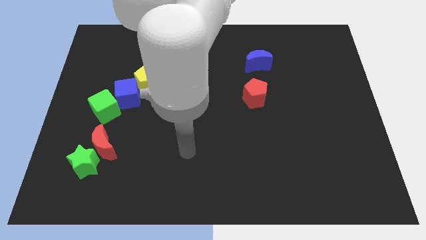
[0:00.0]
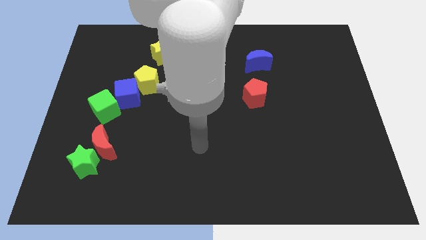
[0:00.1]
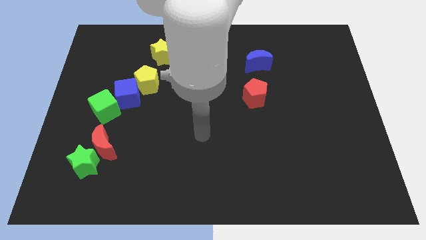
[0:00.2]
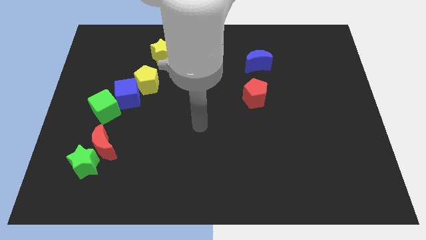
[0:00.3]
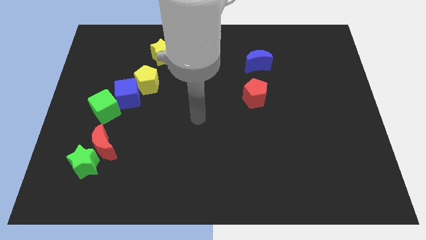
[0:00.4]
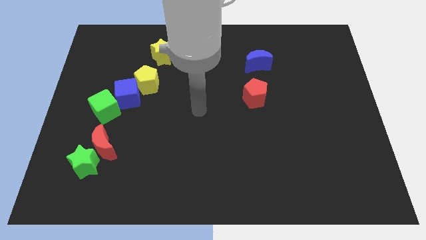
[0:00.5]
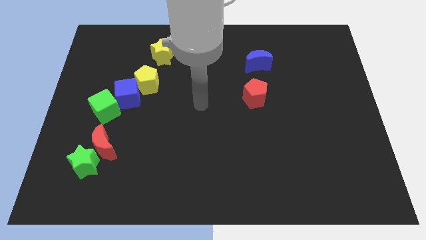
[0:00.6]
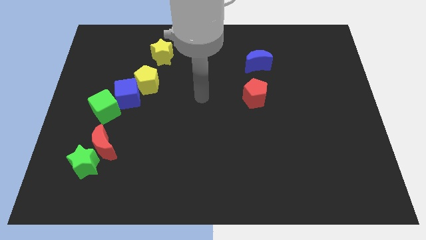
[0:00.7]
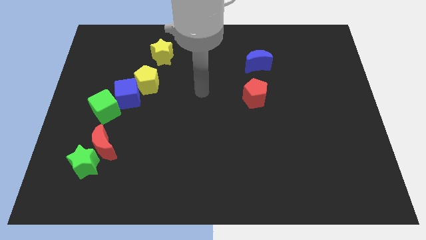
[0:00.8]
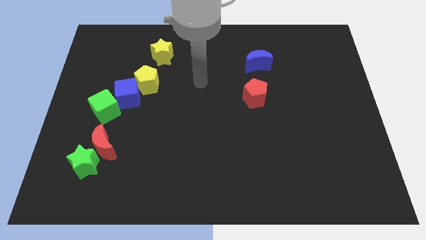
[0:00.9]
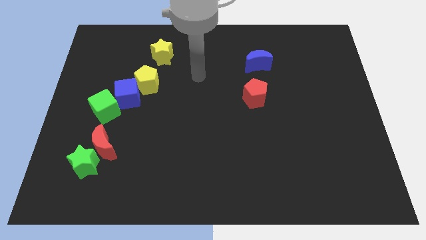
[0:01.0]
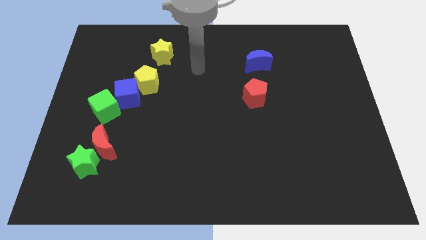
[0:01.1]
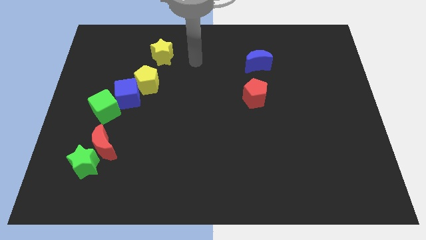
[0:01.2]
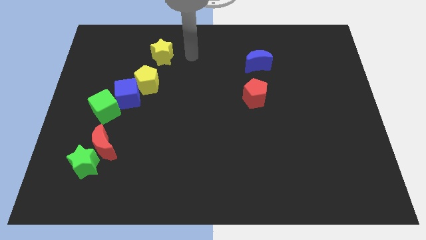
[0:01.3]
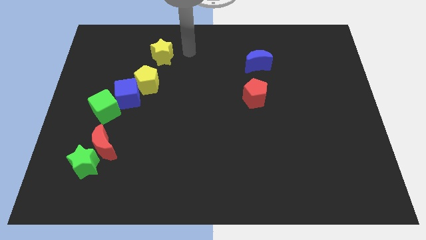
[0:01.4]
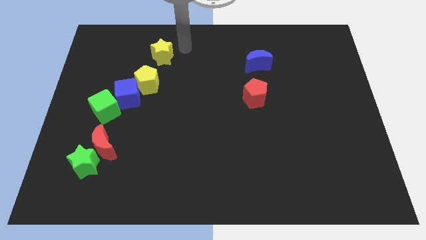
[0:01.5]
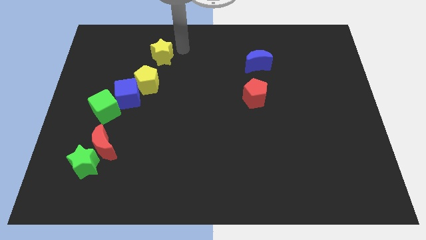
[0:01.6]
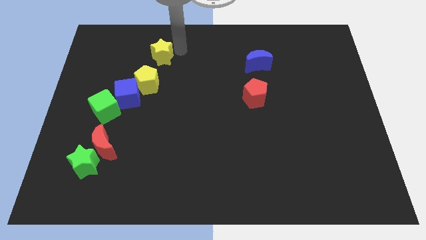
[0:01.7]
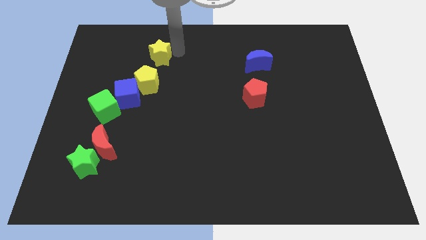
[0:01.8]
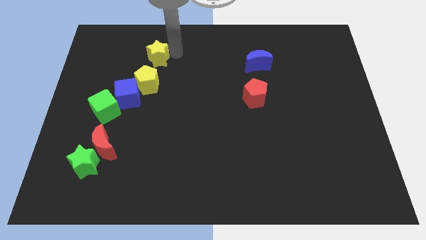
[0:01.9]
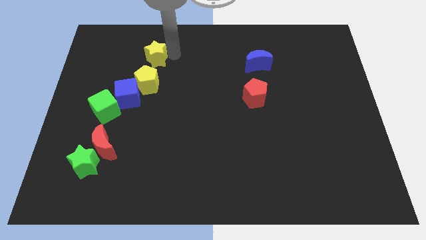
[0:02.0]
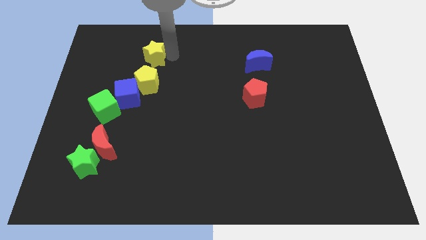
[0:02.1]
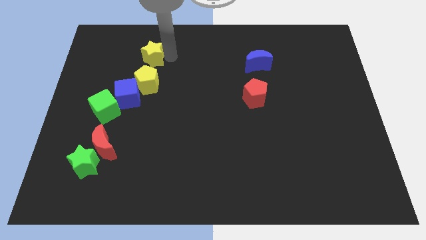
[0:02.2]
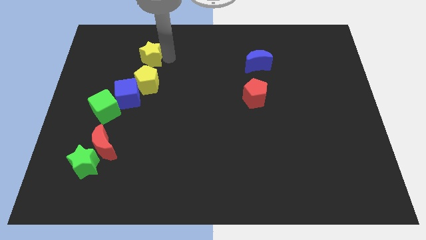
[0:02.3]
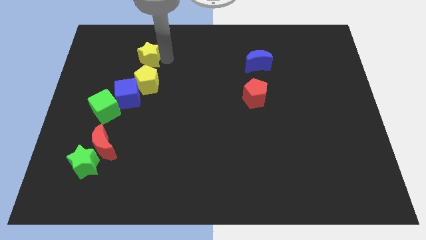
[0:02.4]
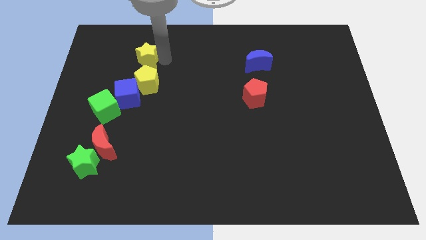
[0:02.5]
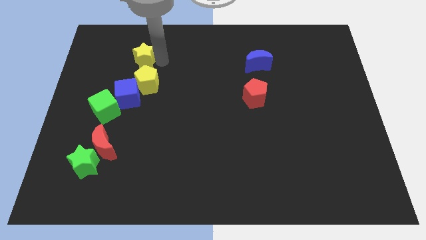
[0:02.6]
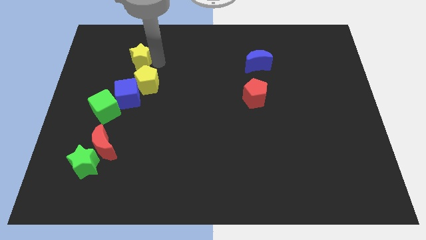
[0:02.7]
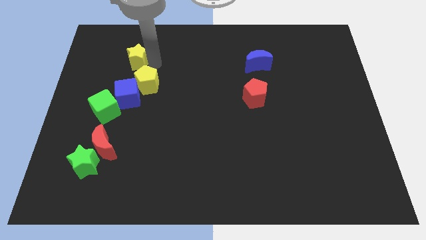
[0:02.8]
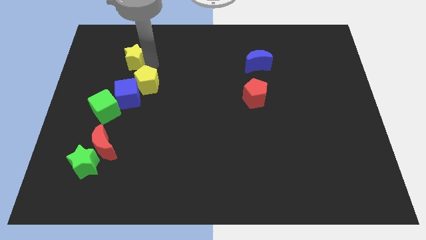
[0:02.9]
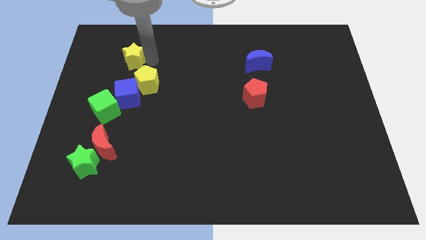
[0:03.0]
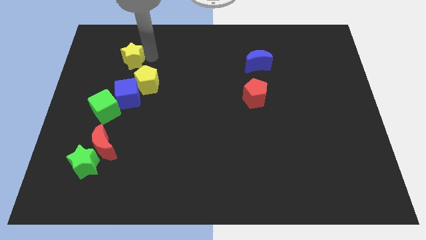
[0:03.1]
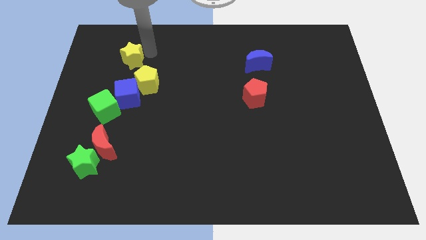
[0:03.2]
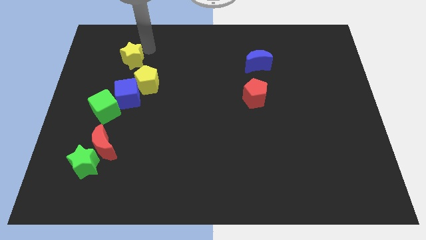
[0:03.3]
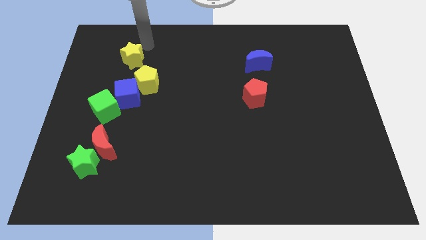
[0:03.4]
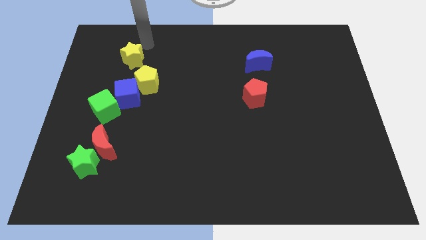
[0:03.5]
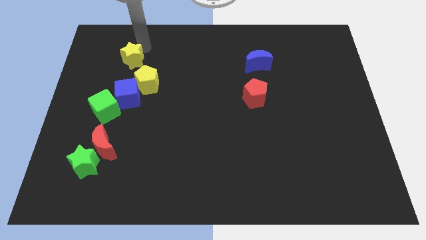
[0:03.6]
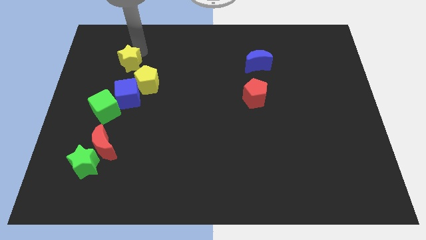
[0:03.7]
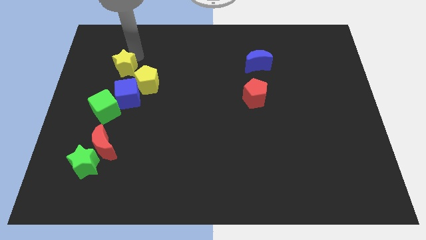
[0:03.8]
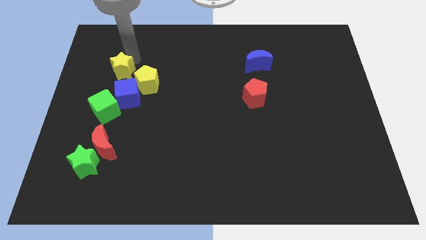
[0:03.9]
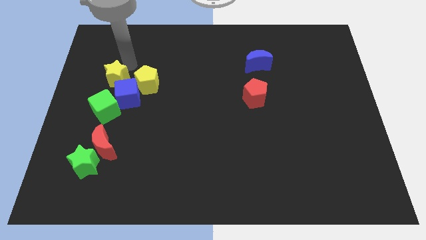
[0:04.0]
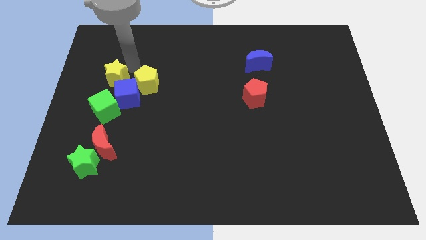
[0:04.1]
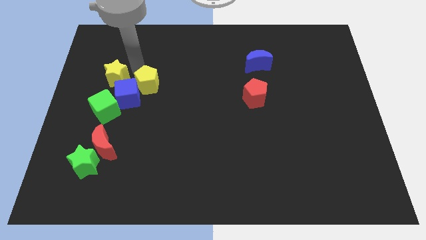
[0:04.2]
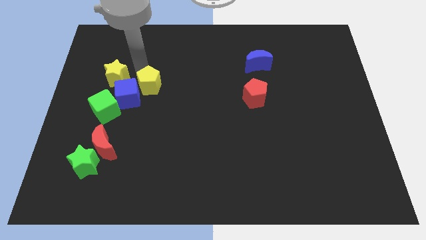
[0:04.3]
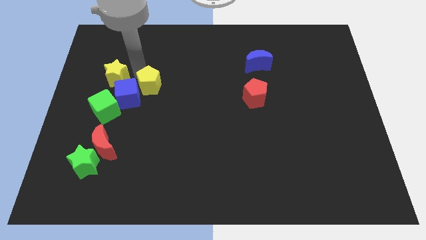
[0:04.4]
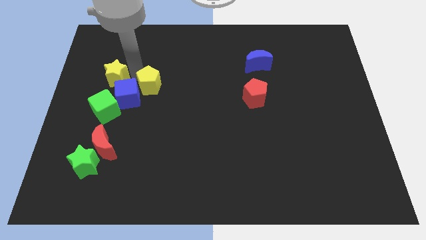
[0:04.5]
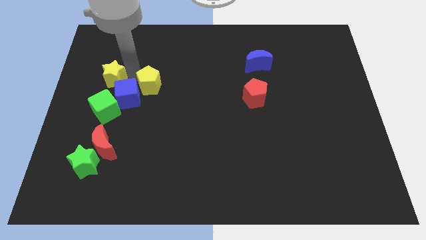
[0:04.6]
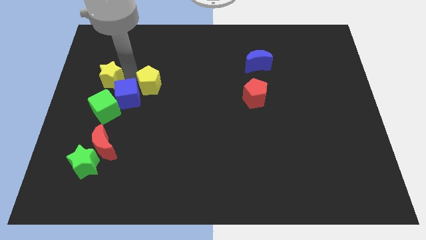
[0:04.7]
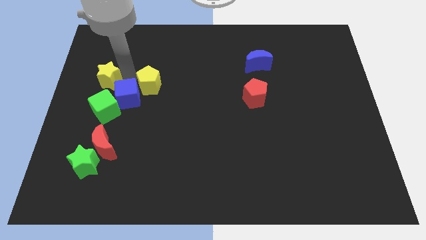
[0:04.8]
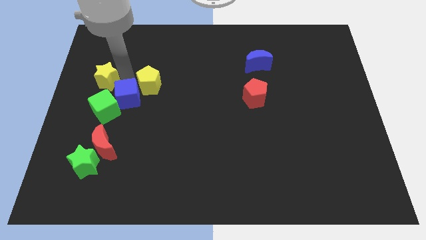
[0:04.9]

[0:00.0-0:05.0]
push the yellow star to the center left

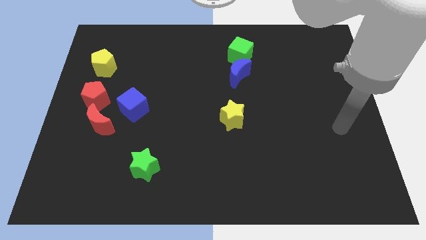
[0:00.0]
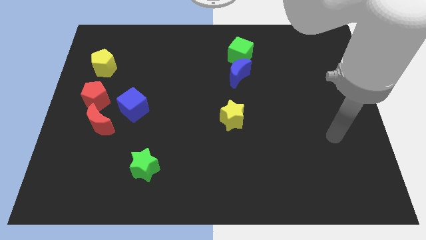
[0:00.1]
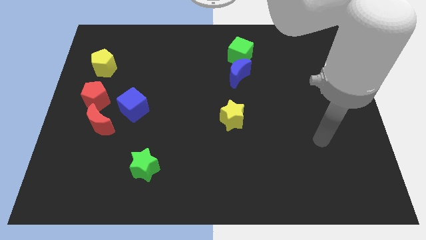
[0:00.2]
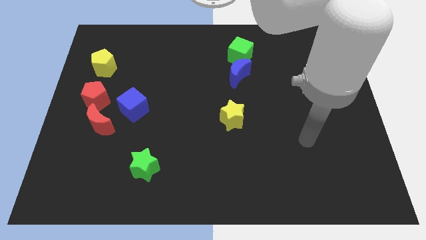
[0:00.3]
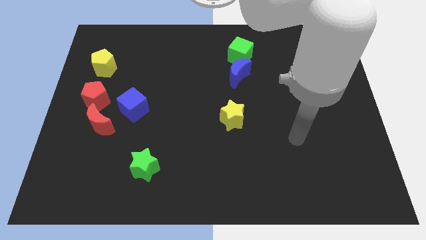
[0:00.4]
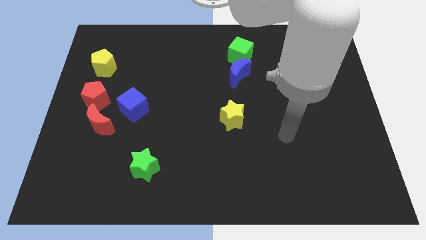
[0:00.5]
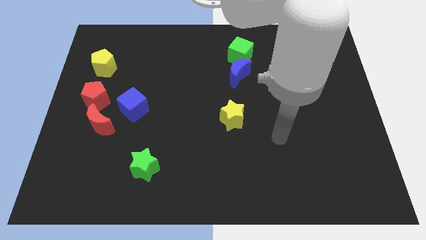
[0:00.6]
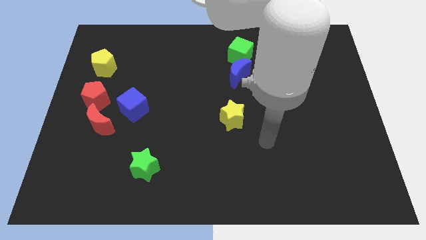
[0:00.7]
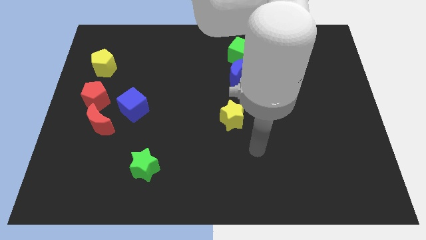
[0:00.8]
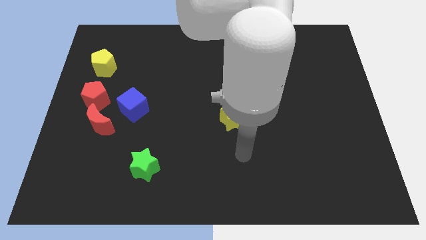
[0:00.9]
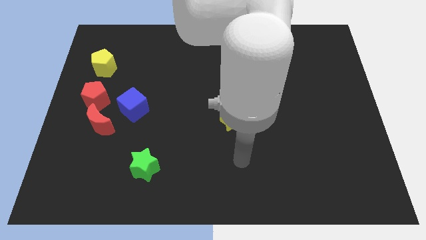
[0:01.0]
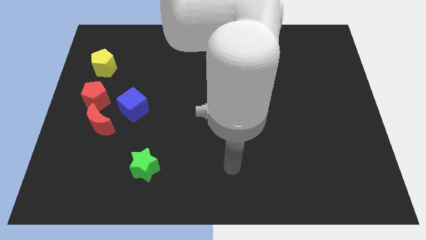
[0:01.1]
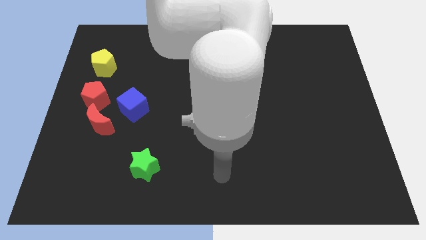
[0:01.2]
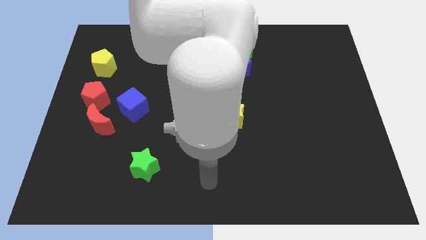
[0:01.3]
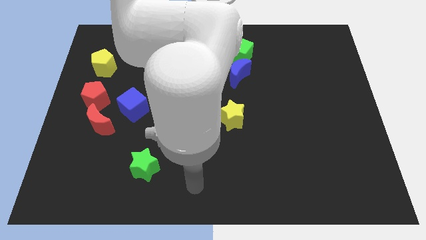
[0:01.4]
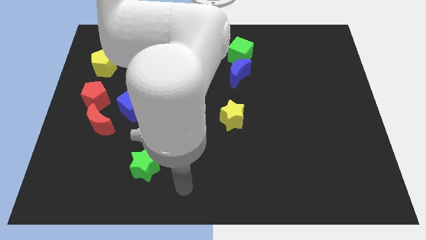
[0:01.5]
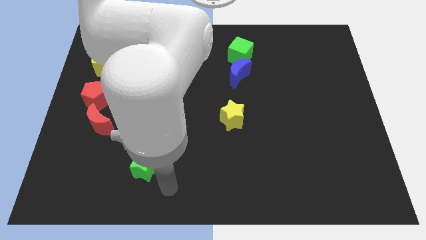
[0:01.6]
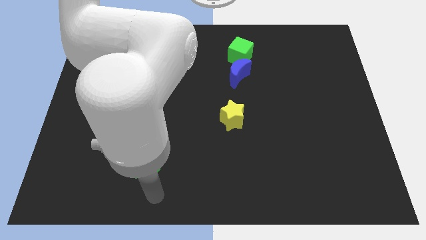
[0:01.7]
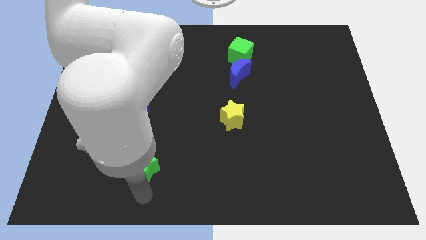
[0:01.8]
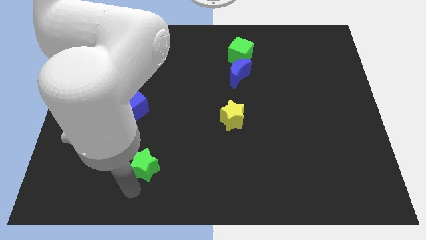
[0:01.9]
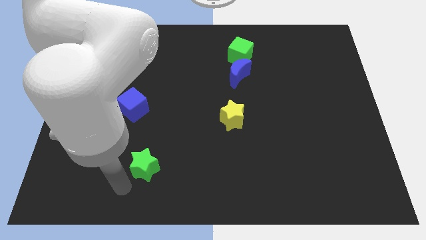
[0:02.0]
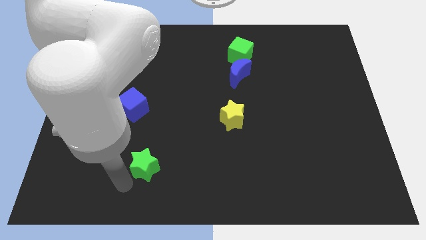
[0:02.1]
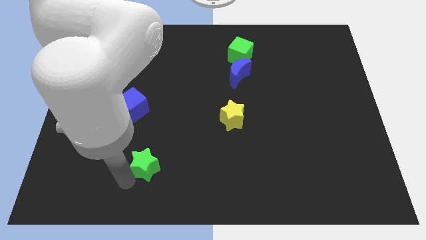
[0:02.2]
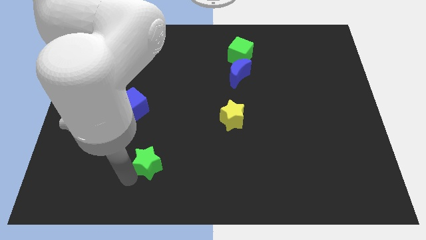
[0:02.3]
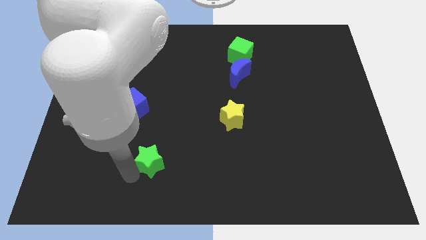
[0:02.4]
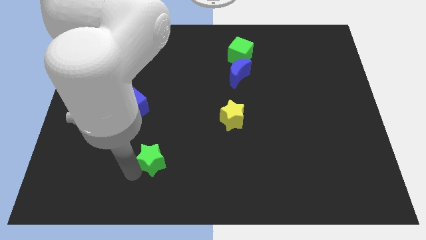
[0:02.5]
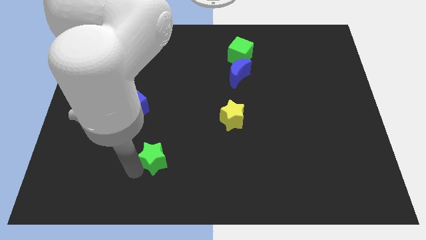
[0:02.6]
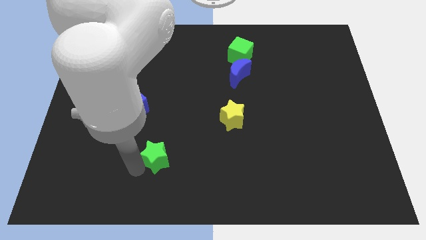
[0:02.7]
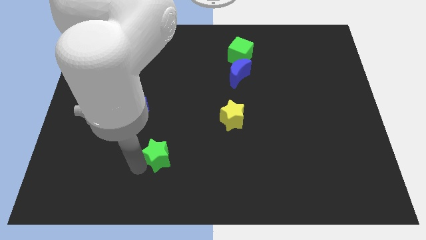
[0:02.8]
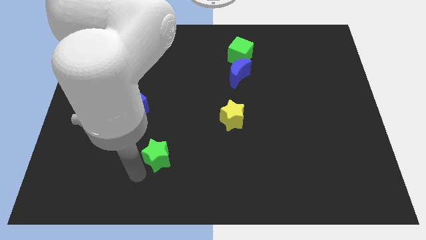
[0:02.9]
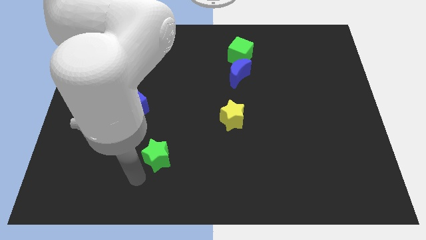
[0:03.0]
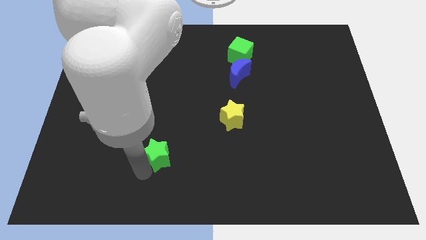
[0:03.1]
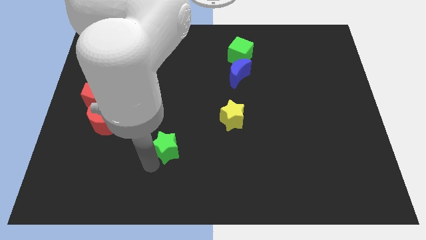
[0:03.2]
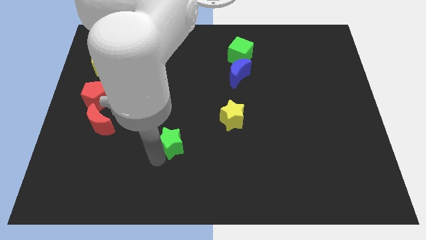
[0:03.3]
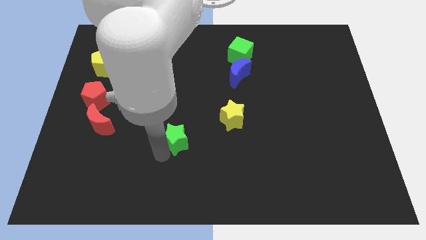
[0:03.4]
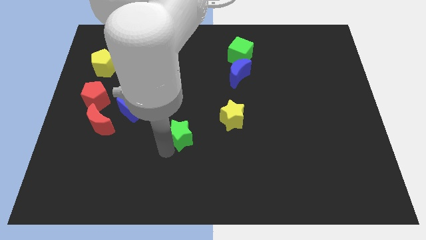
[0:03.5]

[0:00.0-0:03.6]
put the green star to the center of the board
